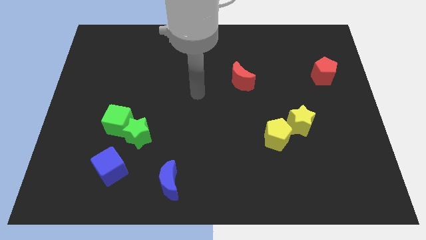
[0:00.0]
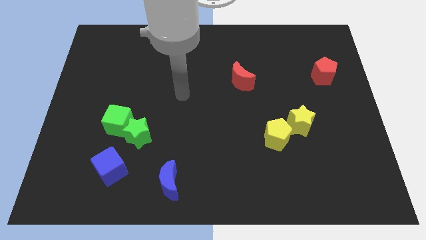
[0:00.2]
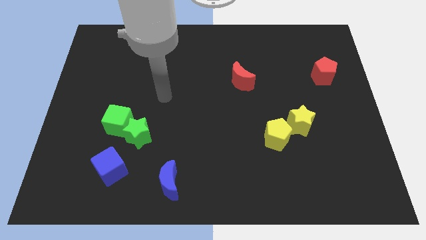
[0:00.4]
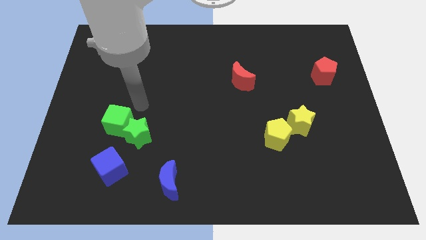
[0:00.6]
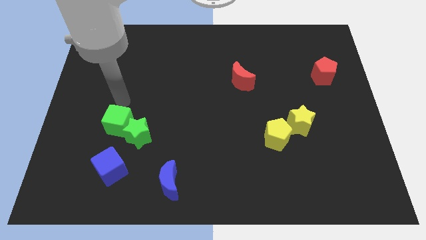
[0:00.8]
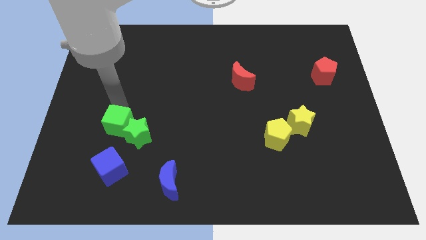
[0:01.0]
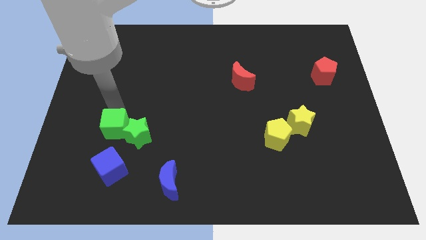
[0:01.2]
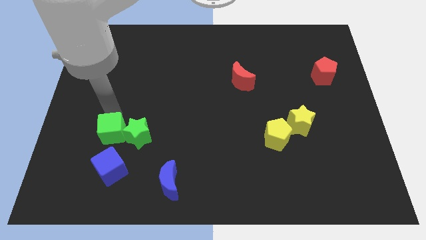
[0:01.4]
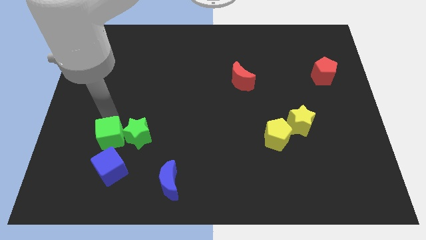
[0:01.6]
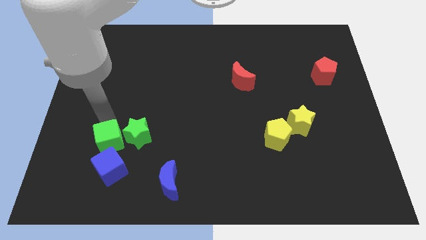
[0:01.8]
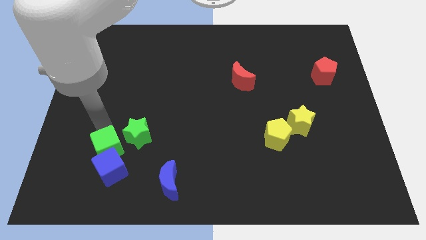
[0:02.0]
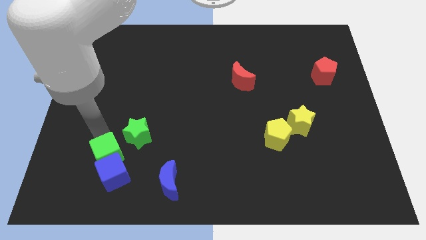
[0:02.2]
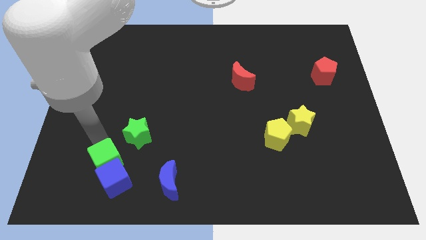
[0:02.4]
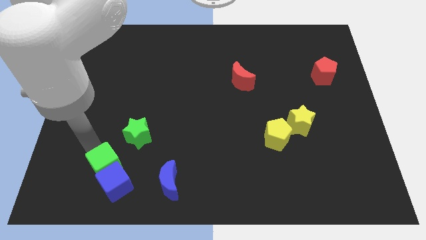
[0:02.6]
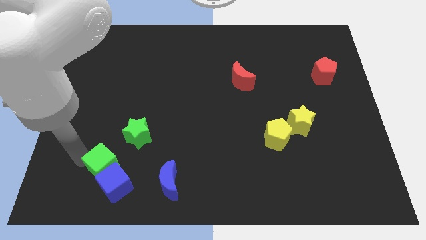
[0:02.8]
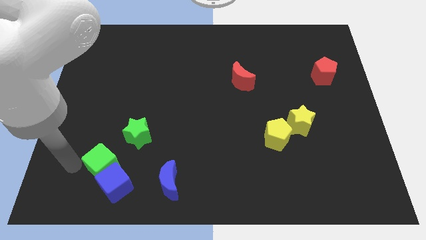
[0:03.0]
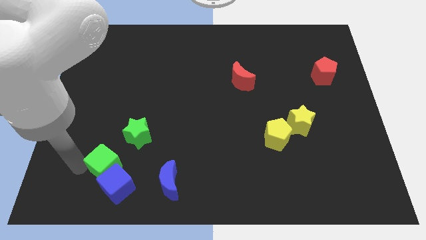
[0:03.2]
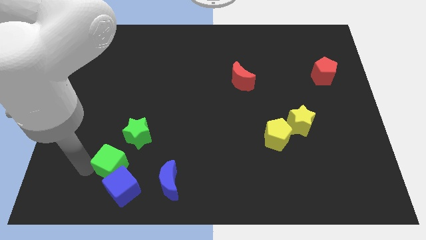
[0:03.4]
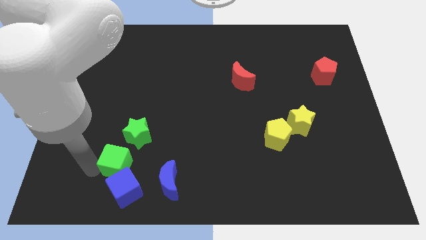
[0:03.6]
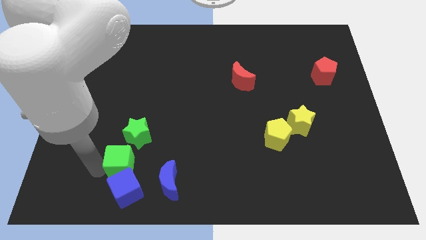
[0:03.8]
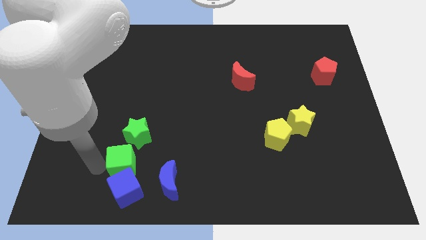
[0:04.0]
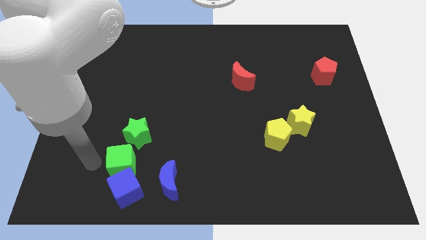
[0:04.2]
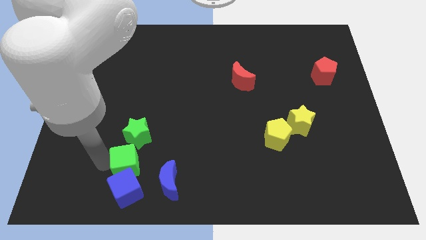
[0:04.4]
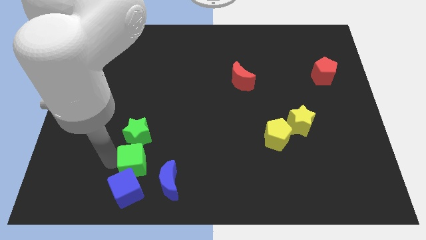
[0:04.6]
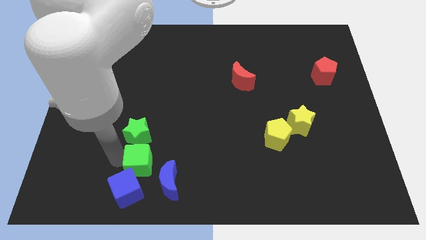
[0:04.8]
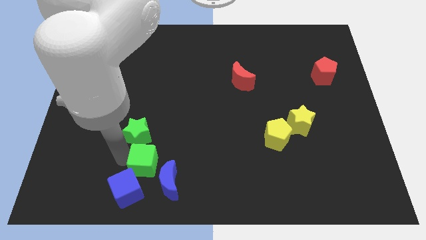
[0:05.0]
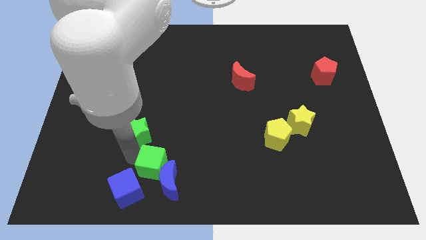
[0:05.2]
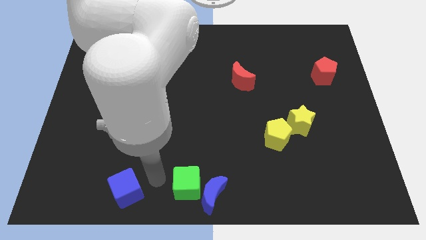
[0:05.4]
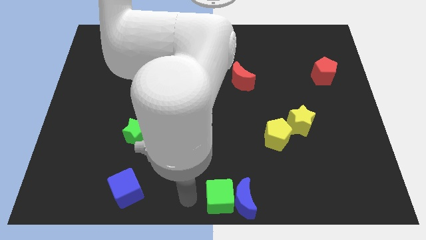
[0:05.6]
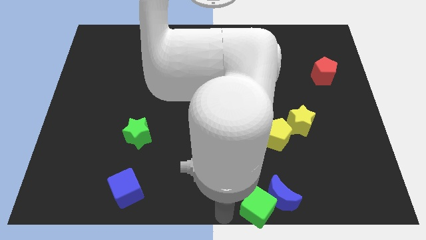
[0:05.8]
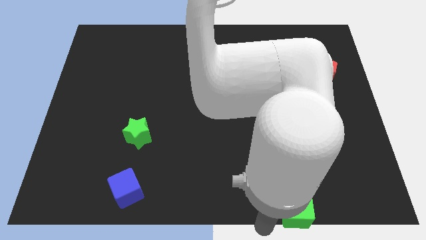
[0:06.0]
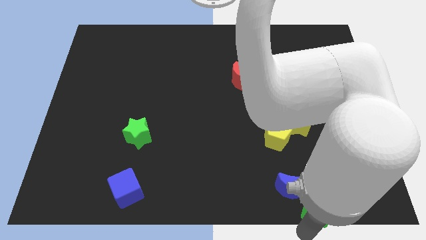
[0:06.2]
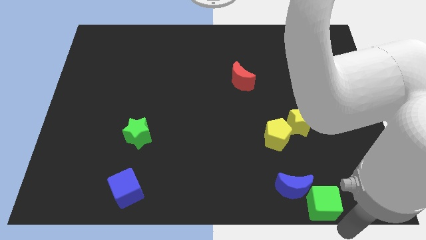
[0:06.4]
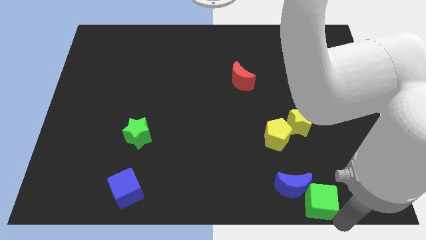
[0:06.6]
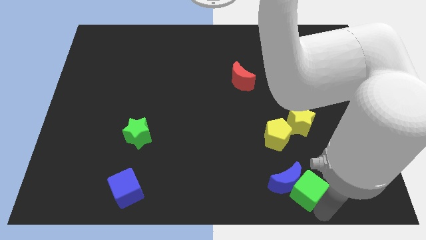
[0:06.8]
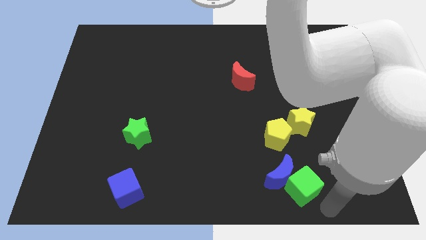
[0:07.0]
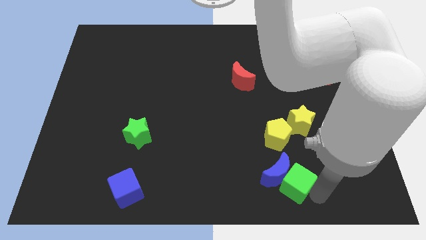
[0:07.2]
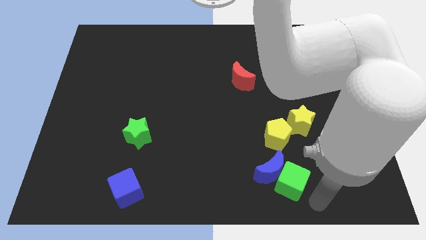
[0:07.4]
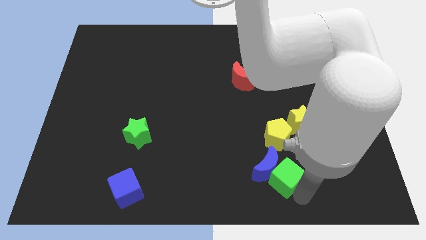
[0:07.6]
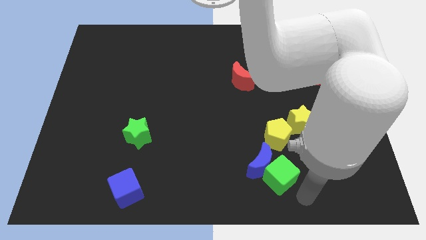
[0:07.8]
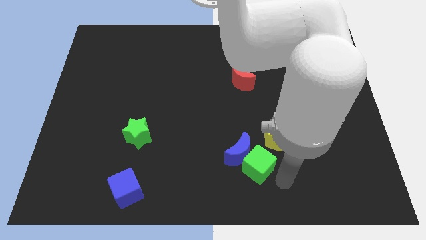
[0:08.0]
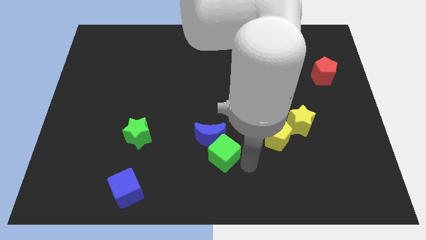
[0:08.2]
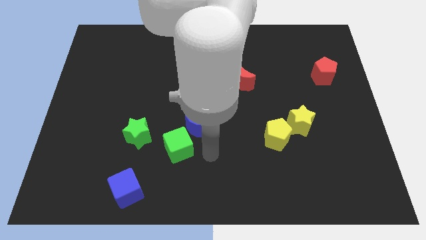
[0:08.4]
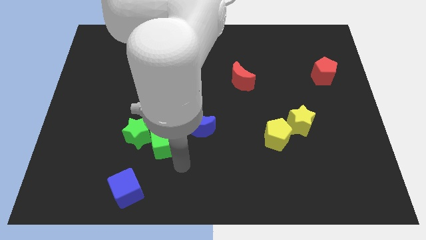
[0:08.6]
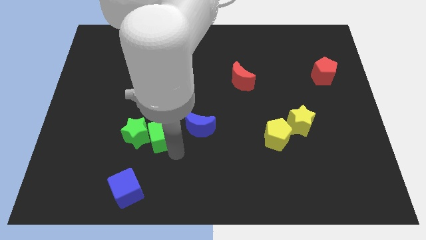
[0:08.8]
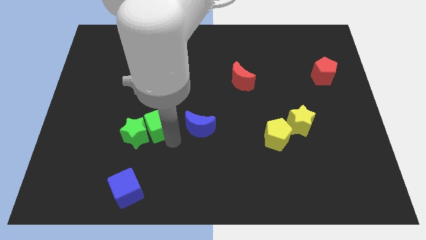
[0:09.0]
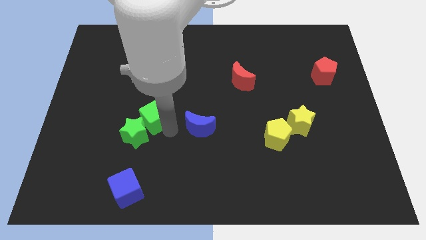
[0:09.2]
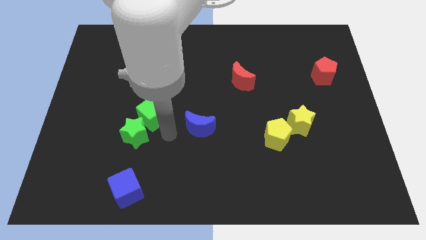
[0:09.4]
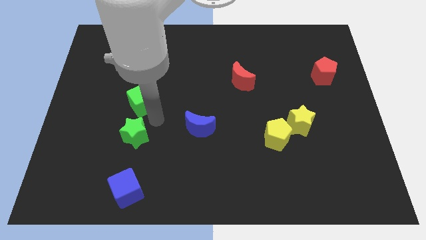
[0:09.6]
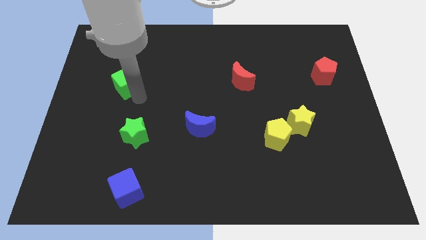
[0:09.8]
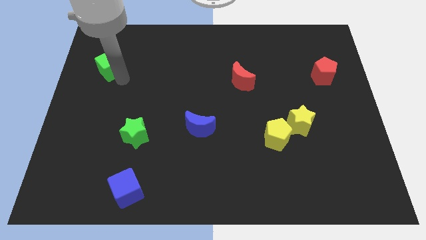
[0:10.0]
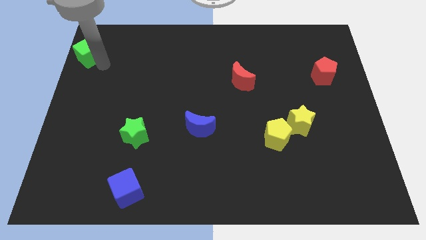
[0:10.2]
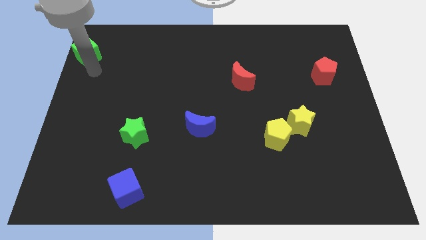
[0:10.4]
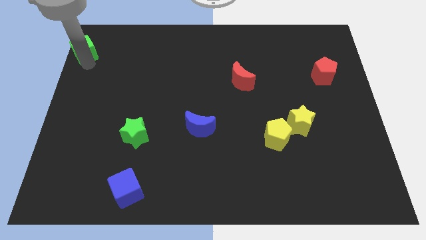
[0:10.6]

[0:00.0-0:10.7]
move the green cube to the top left corner

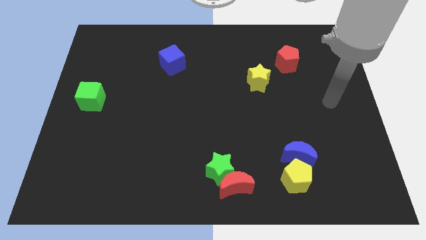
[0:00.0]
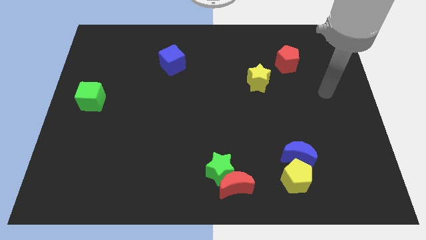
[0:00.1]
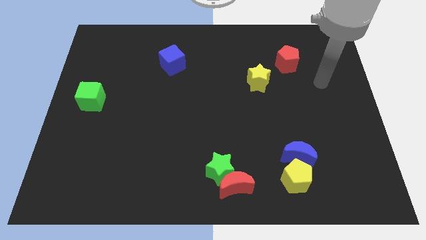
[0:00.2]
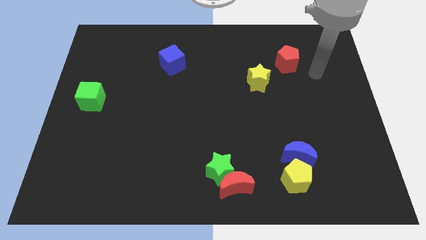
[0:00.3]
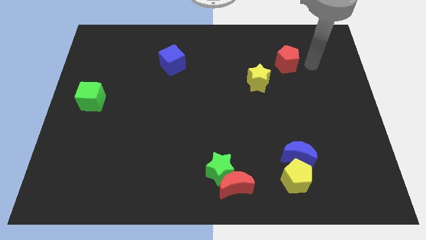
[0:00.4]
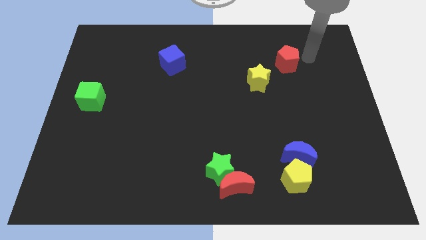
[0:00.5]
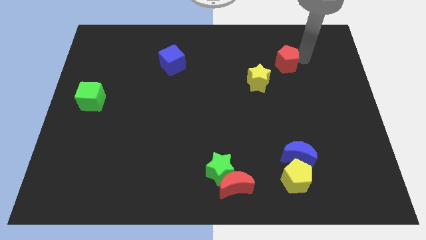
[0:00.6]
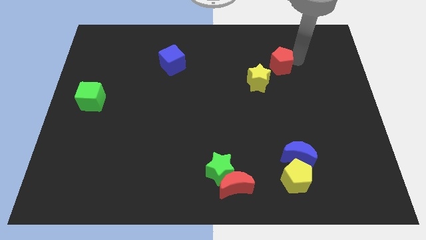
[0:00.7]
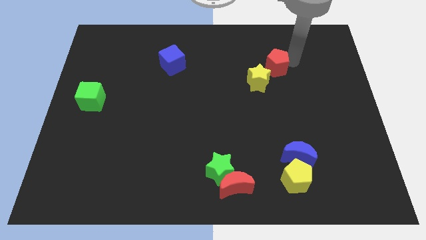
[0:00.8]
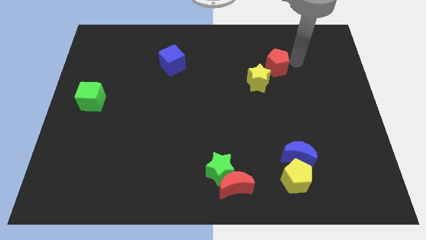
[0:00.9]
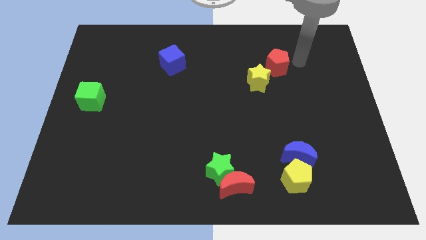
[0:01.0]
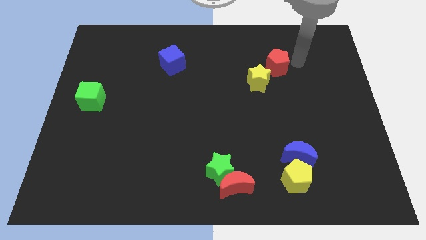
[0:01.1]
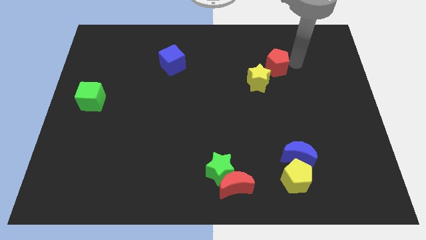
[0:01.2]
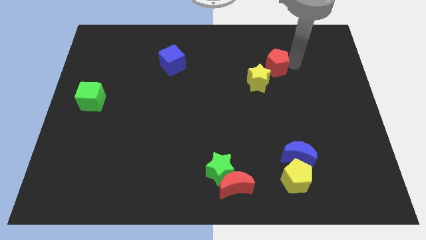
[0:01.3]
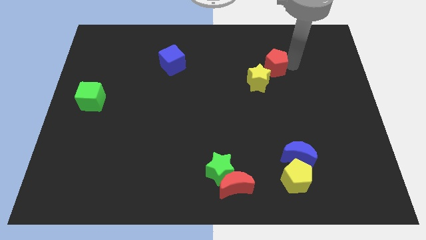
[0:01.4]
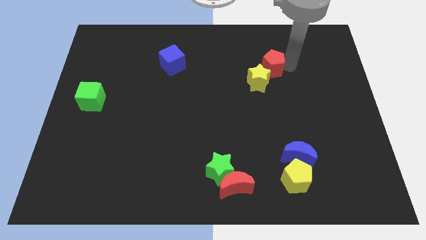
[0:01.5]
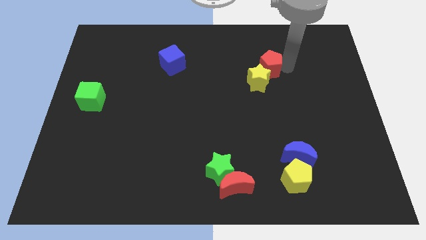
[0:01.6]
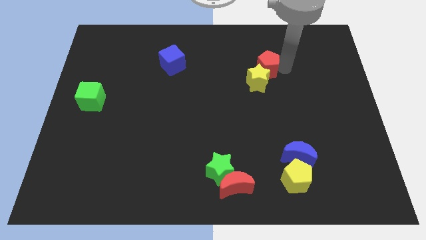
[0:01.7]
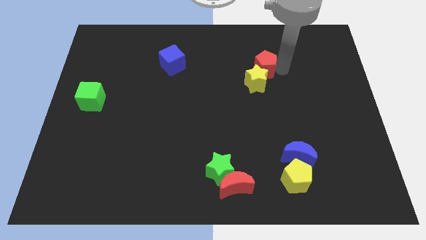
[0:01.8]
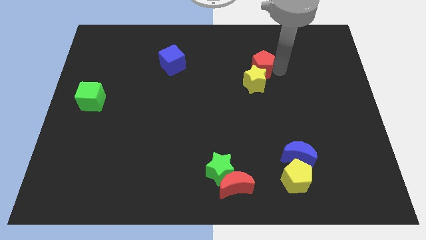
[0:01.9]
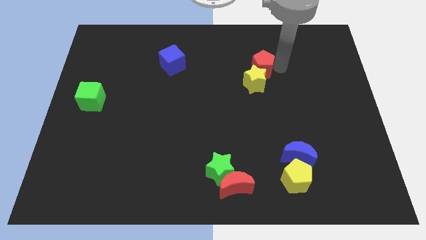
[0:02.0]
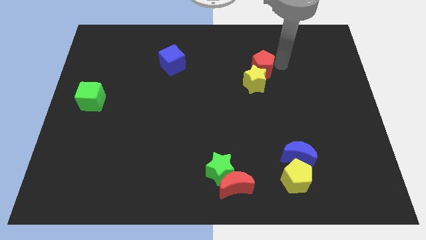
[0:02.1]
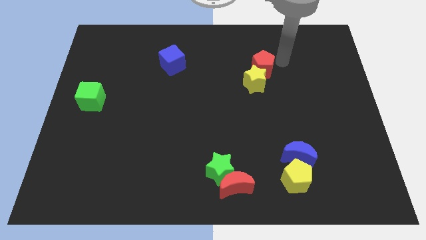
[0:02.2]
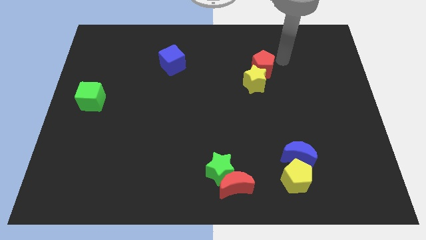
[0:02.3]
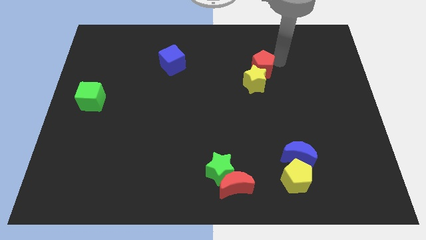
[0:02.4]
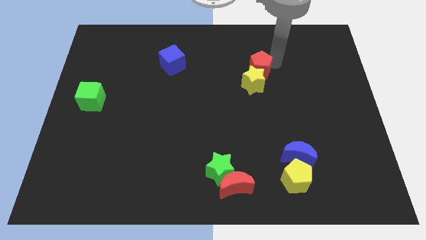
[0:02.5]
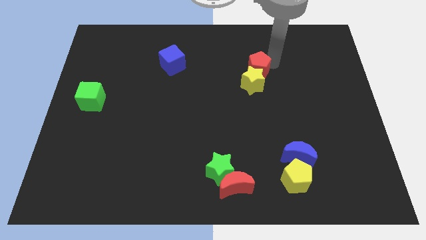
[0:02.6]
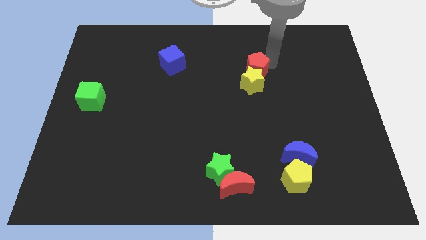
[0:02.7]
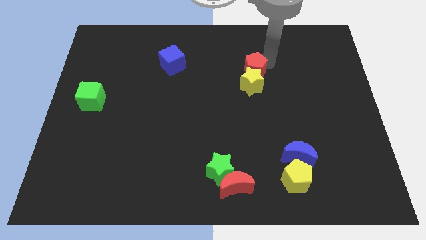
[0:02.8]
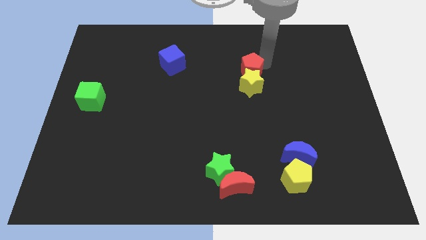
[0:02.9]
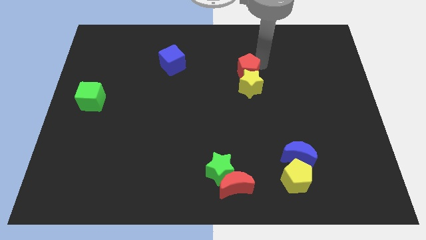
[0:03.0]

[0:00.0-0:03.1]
slide the red pentagon to the center
